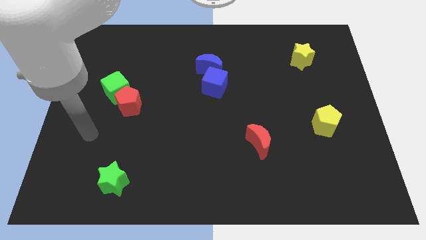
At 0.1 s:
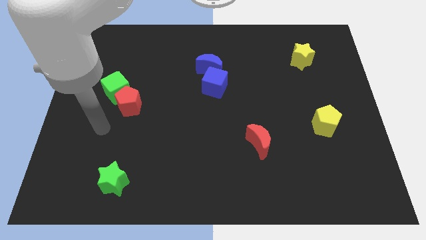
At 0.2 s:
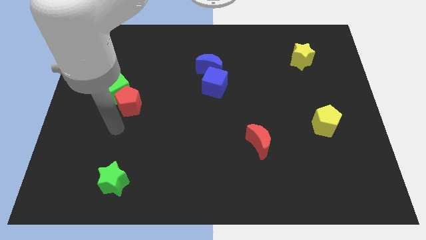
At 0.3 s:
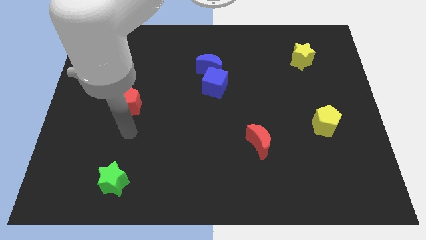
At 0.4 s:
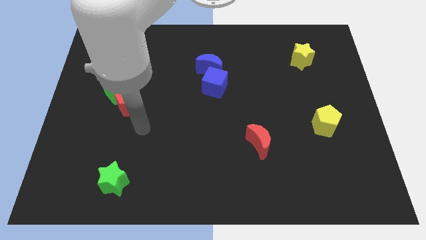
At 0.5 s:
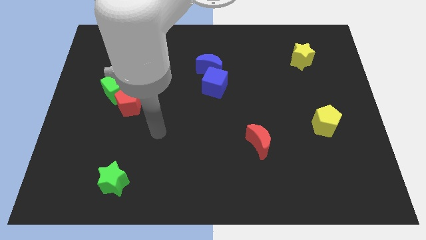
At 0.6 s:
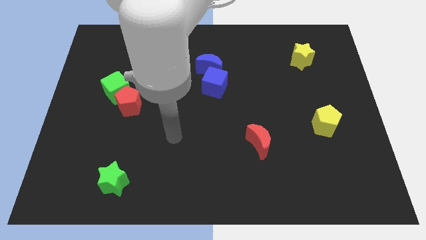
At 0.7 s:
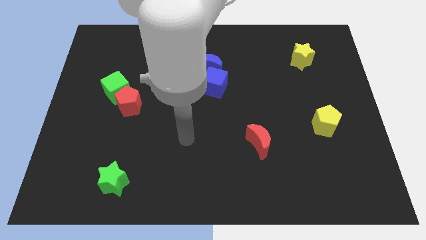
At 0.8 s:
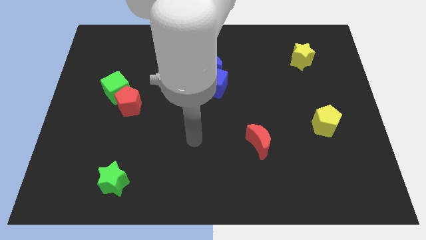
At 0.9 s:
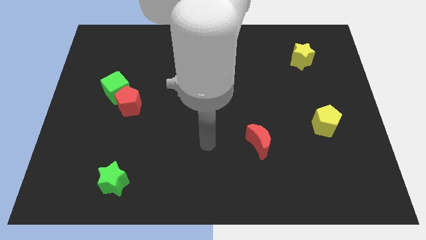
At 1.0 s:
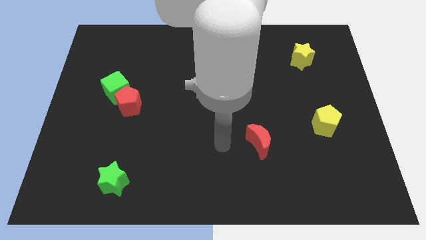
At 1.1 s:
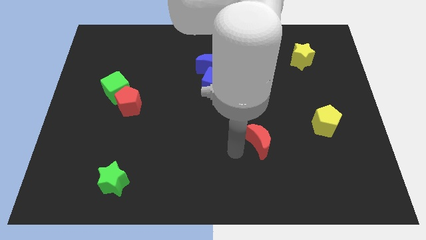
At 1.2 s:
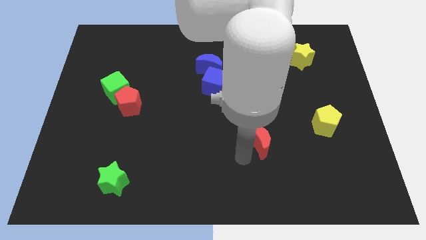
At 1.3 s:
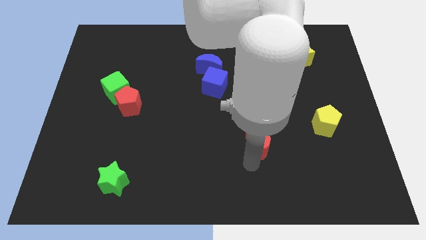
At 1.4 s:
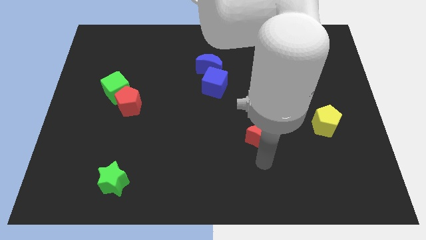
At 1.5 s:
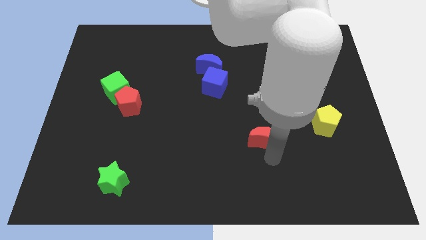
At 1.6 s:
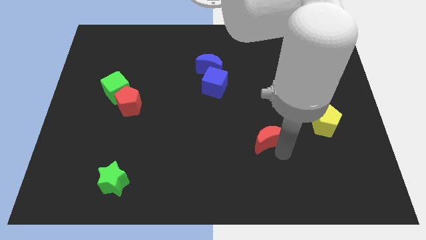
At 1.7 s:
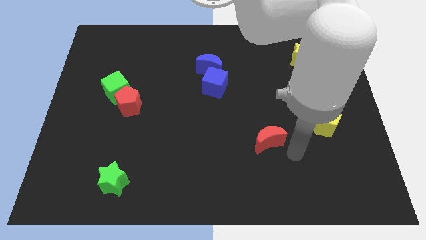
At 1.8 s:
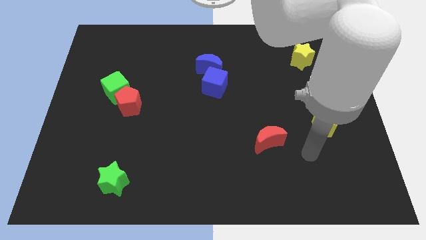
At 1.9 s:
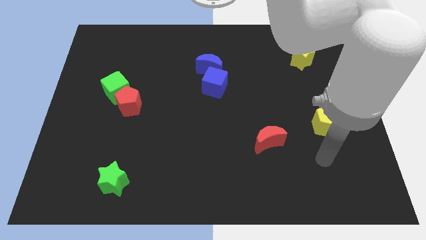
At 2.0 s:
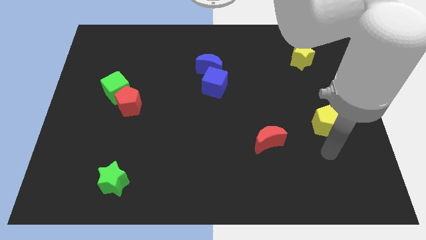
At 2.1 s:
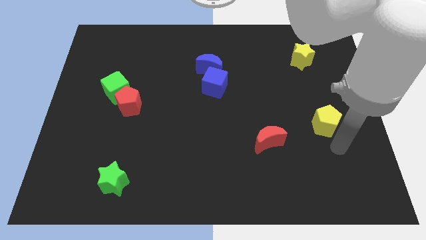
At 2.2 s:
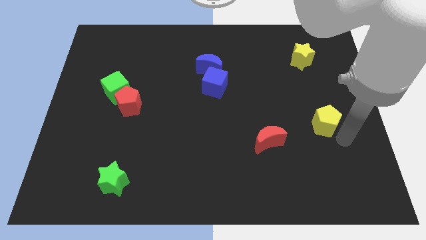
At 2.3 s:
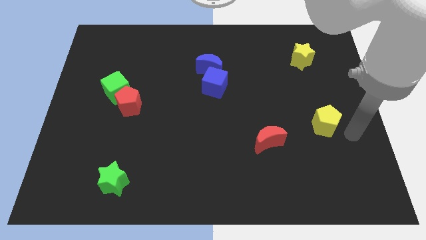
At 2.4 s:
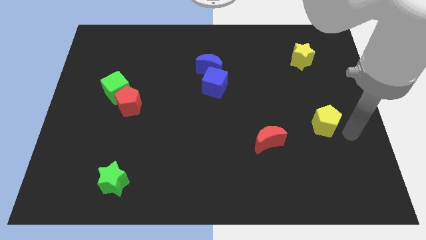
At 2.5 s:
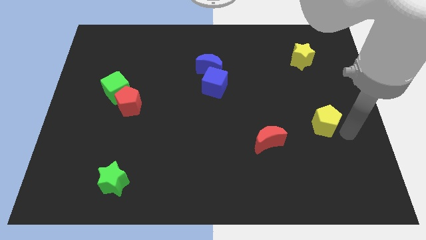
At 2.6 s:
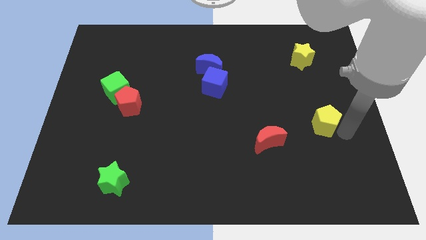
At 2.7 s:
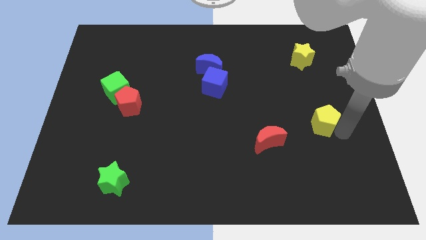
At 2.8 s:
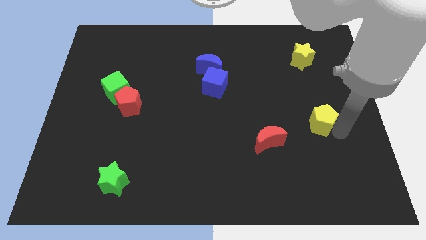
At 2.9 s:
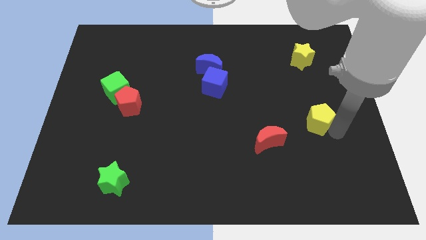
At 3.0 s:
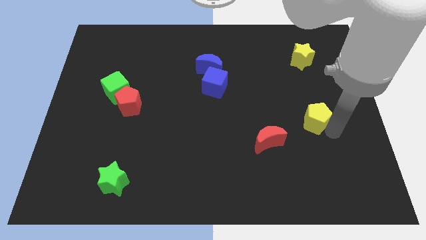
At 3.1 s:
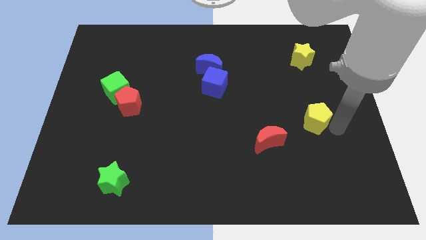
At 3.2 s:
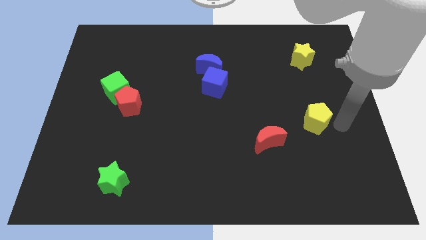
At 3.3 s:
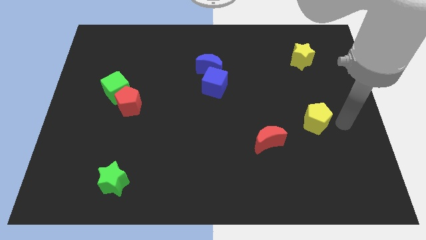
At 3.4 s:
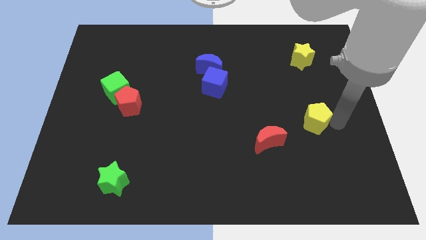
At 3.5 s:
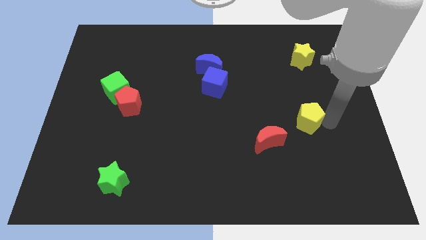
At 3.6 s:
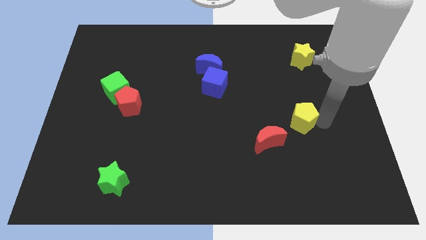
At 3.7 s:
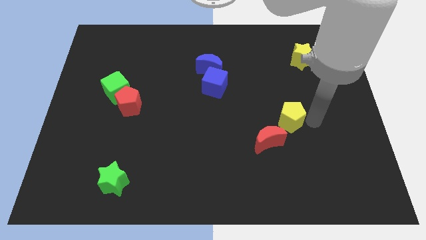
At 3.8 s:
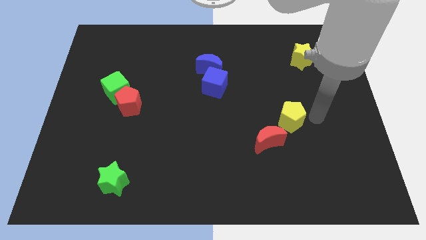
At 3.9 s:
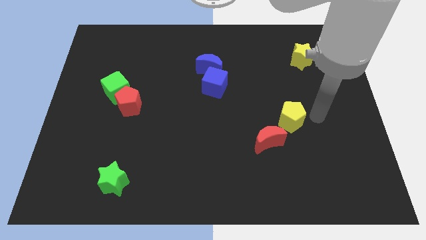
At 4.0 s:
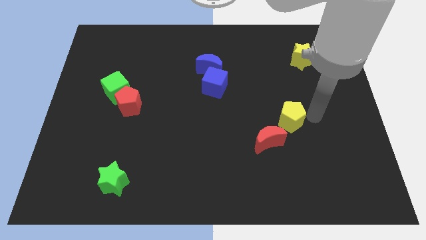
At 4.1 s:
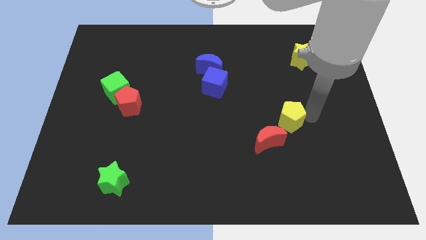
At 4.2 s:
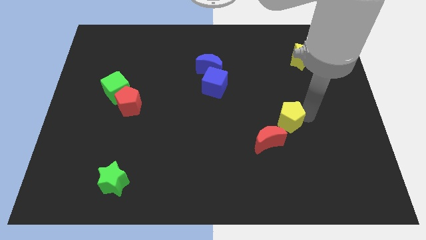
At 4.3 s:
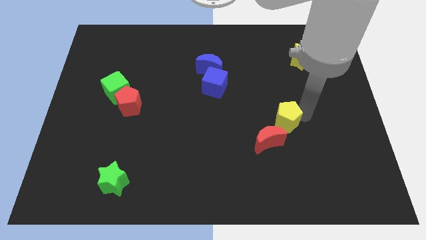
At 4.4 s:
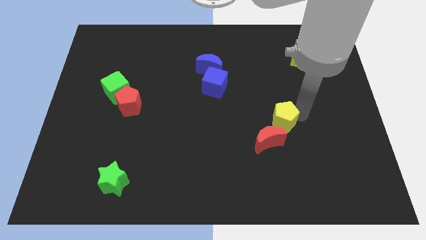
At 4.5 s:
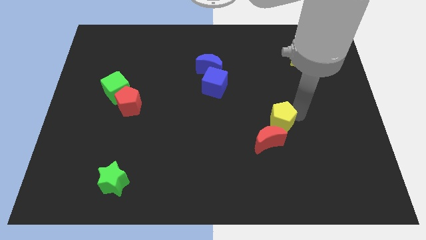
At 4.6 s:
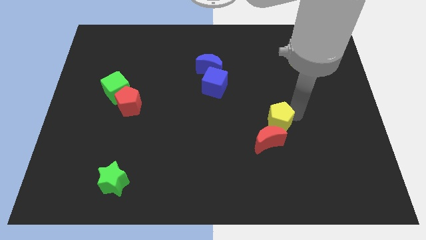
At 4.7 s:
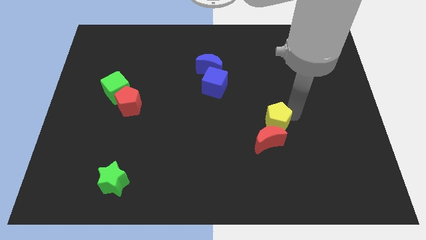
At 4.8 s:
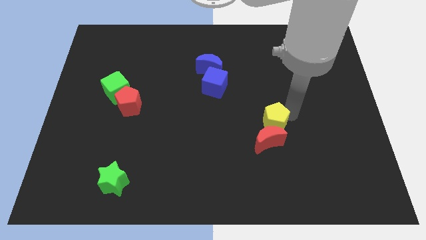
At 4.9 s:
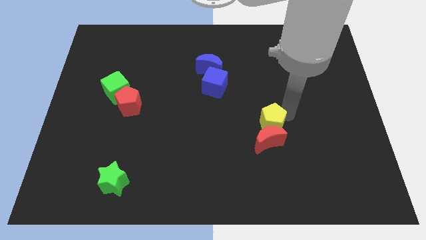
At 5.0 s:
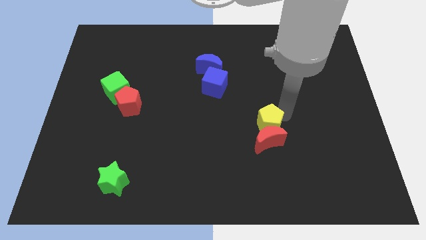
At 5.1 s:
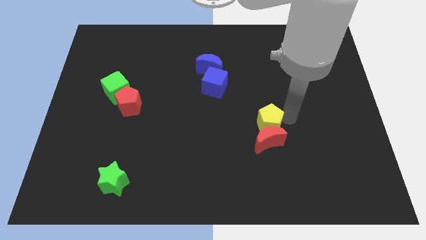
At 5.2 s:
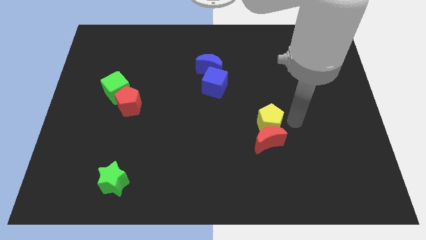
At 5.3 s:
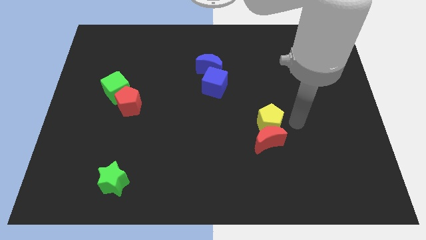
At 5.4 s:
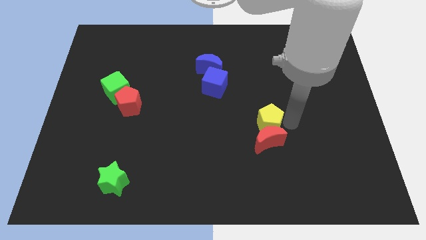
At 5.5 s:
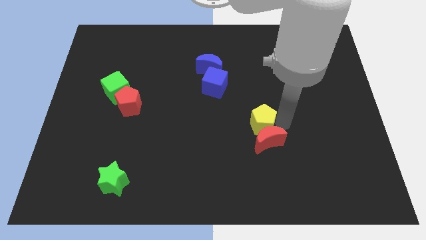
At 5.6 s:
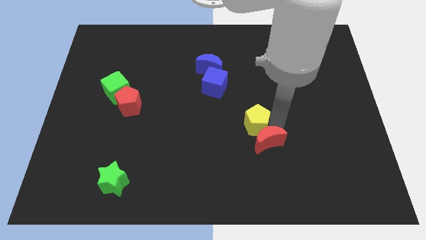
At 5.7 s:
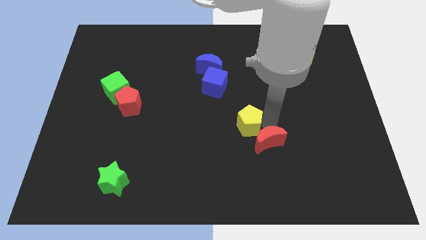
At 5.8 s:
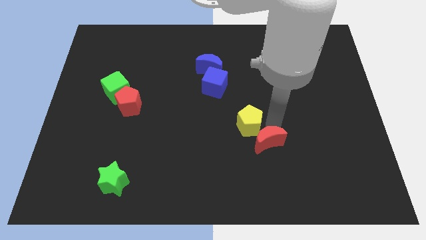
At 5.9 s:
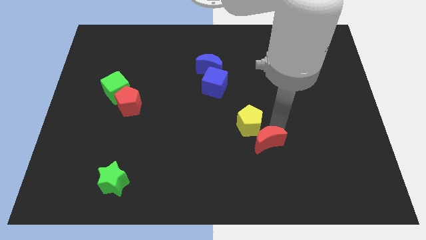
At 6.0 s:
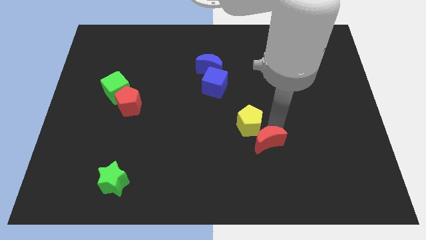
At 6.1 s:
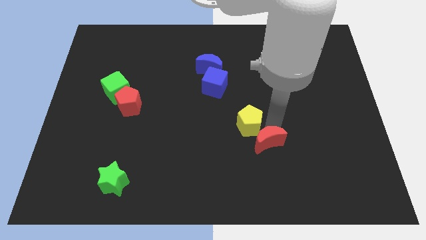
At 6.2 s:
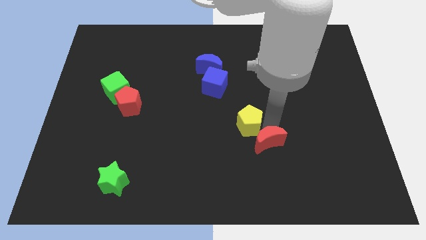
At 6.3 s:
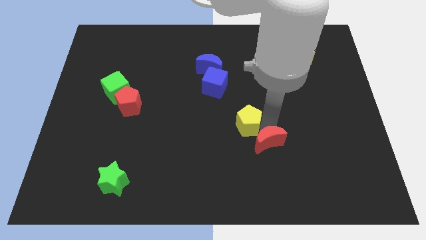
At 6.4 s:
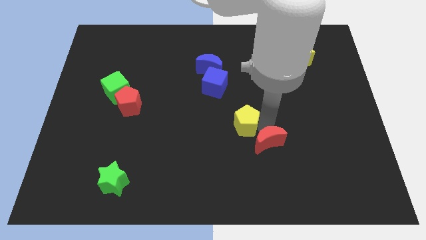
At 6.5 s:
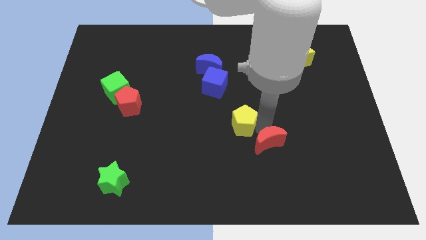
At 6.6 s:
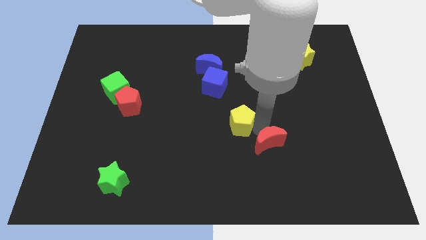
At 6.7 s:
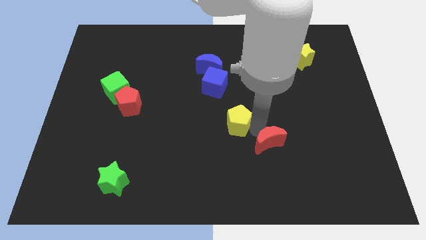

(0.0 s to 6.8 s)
slide the yellow pentagon to the left

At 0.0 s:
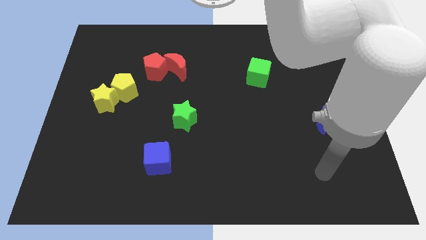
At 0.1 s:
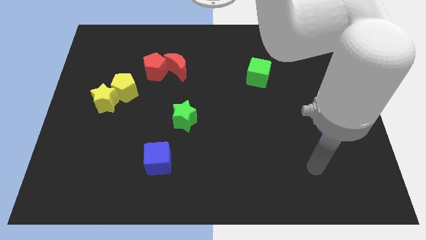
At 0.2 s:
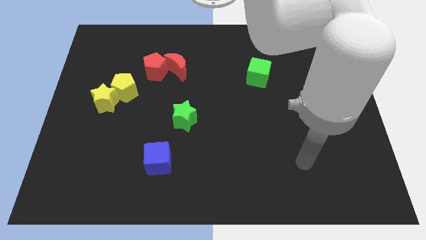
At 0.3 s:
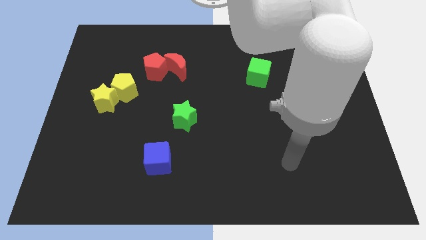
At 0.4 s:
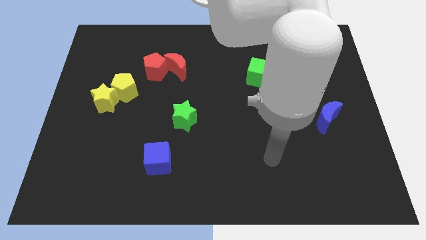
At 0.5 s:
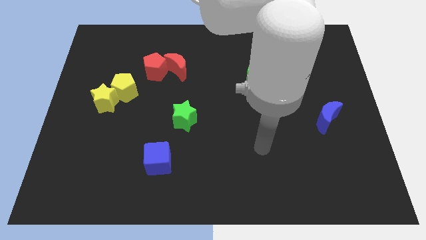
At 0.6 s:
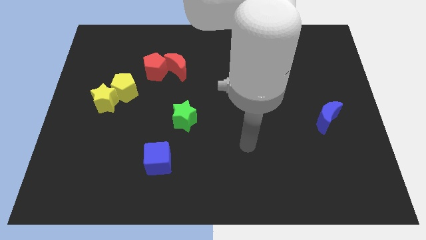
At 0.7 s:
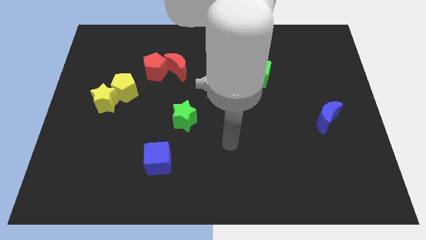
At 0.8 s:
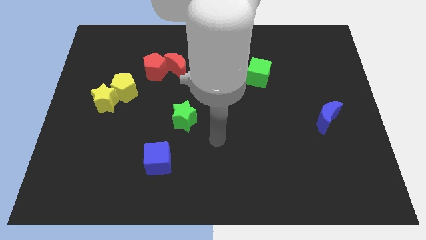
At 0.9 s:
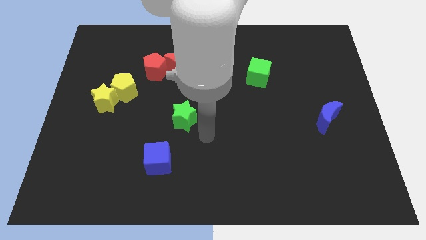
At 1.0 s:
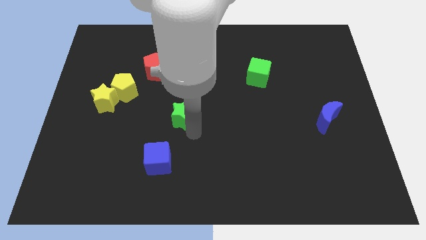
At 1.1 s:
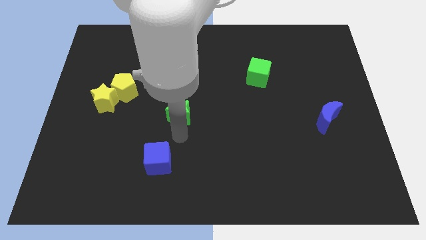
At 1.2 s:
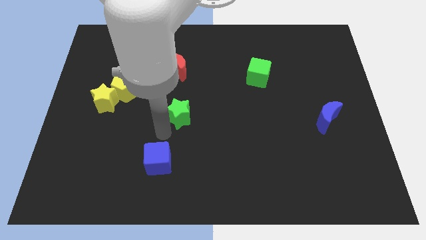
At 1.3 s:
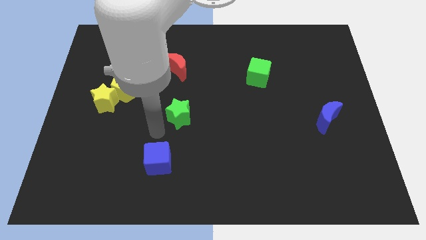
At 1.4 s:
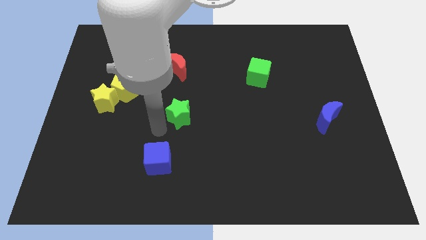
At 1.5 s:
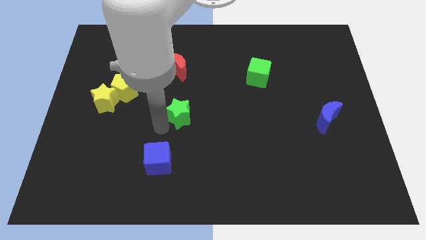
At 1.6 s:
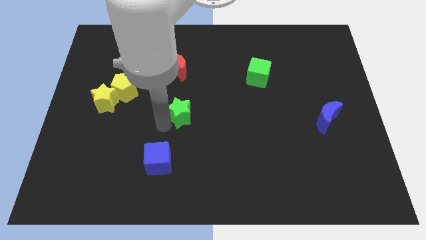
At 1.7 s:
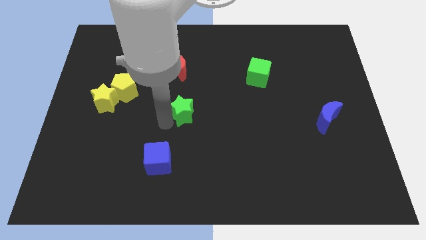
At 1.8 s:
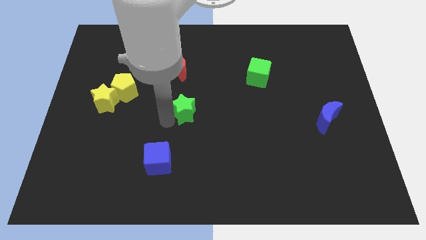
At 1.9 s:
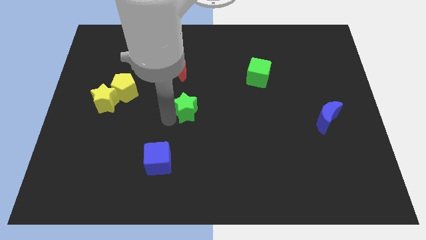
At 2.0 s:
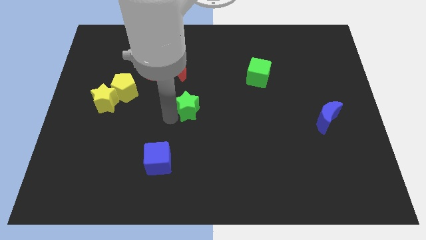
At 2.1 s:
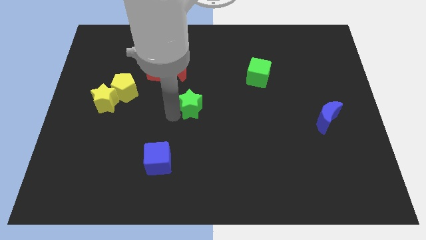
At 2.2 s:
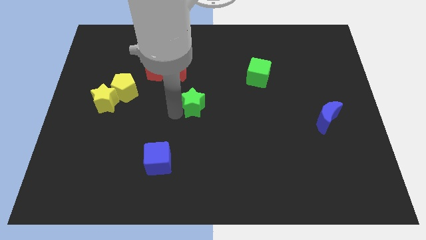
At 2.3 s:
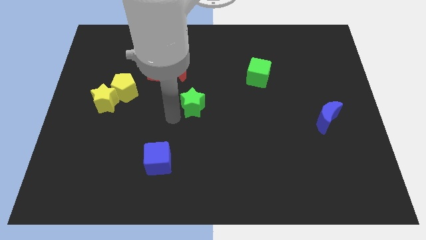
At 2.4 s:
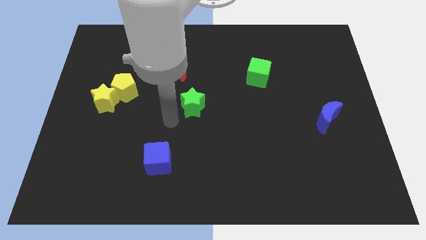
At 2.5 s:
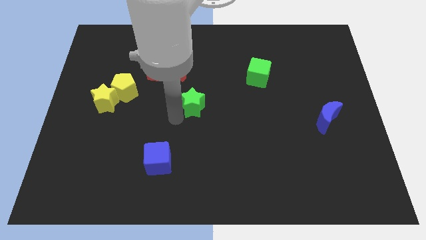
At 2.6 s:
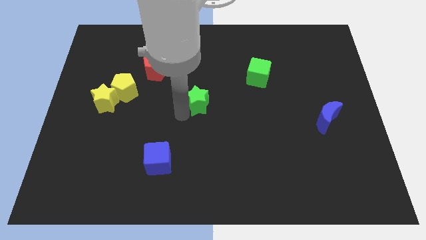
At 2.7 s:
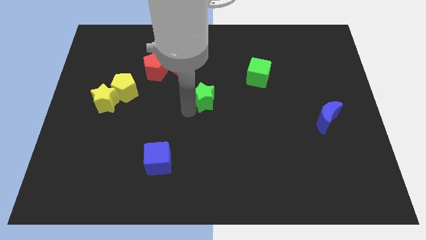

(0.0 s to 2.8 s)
slightly slide the green star diagonally up and right
